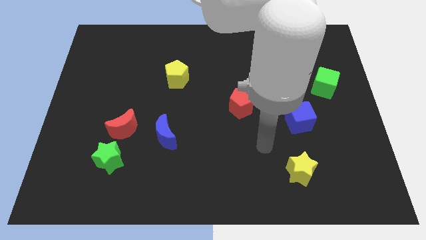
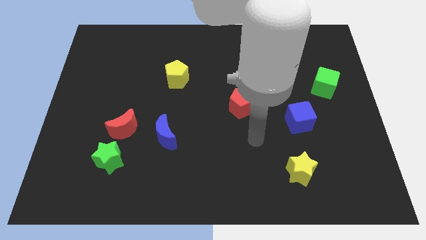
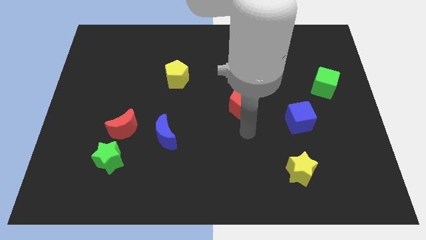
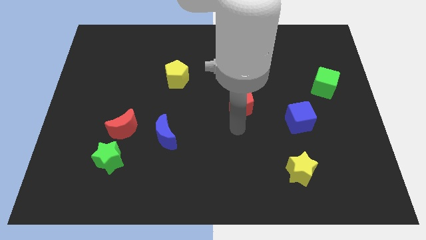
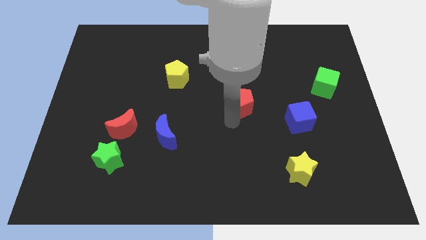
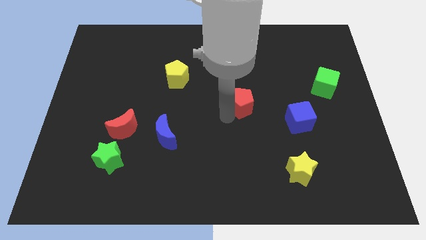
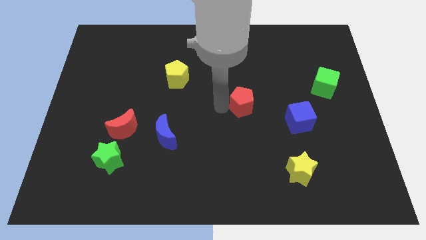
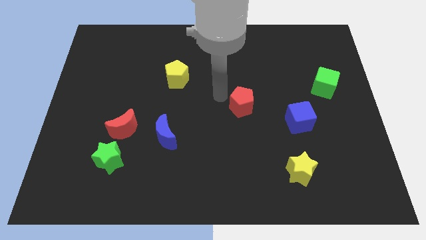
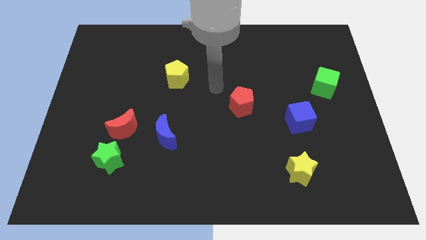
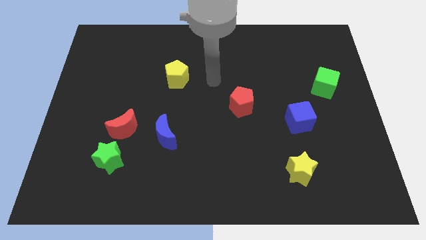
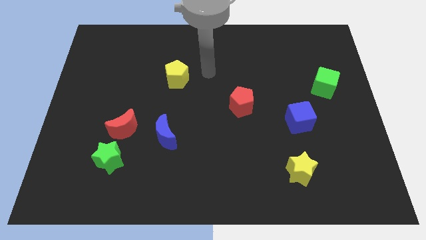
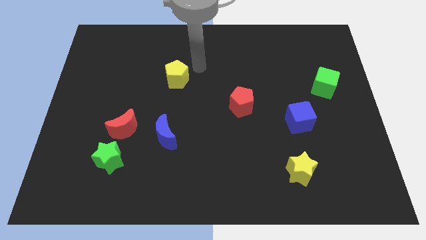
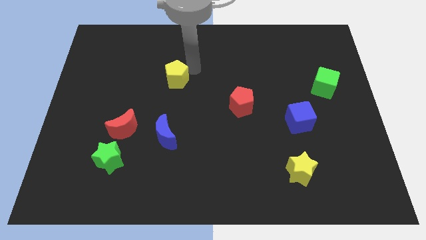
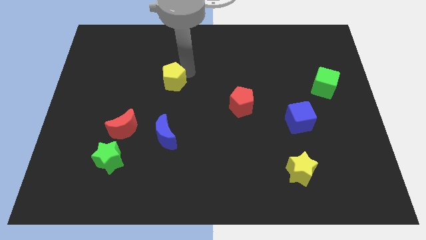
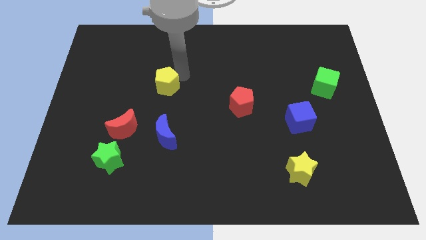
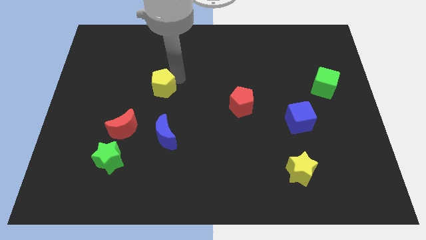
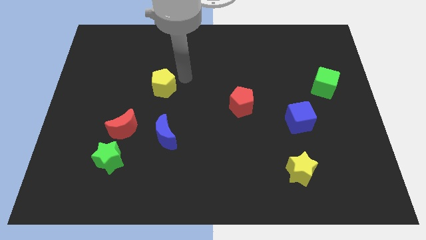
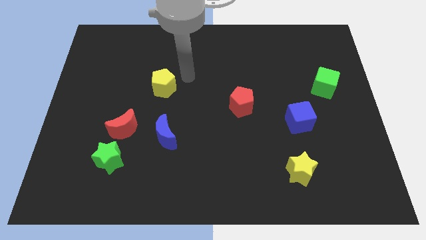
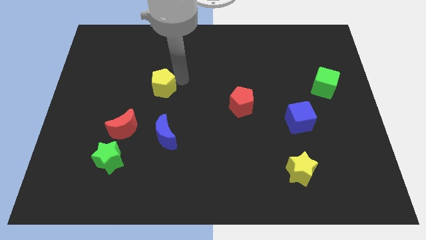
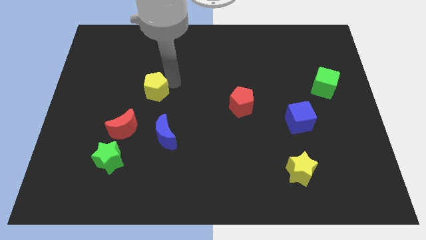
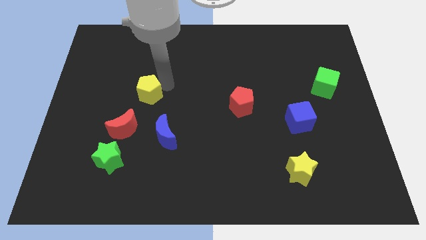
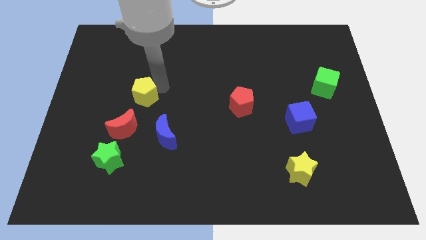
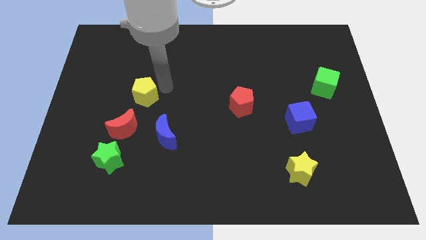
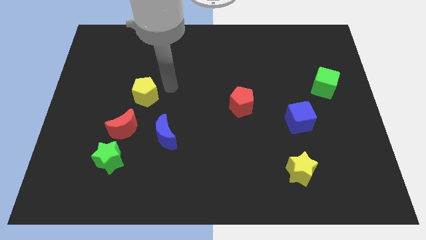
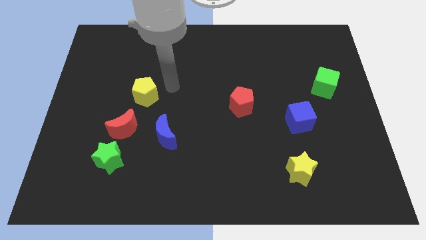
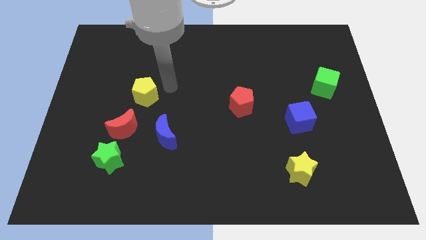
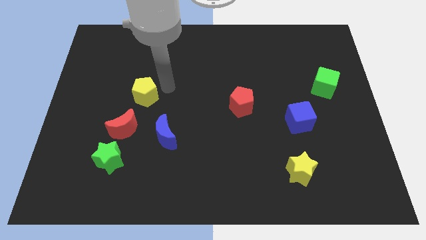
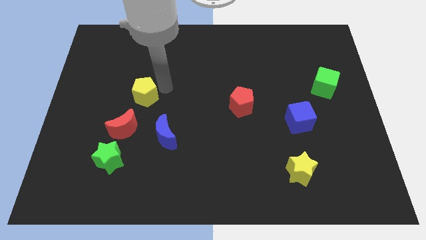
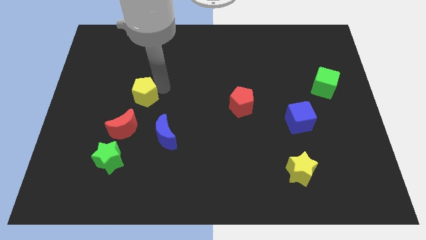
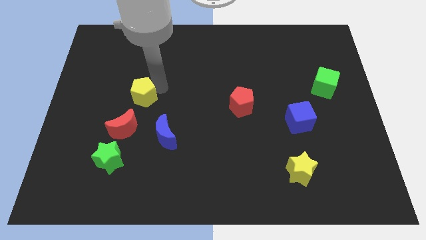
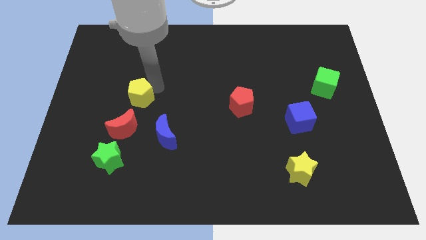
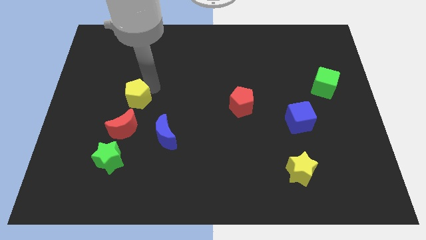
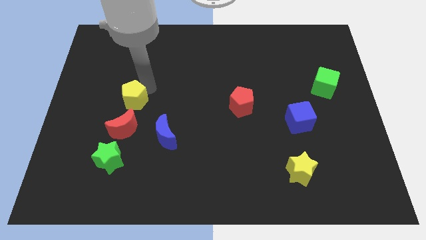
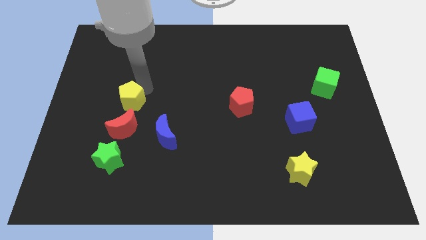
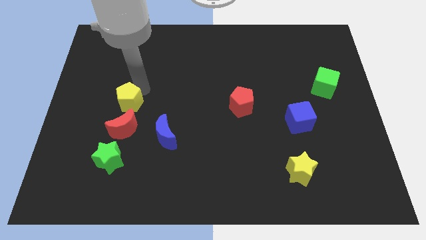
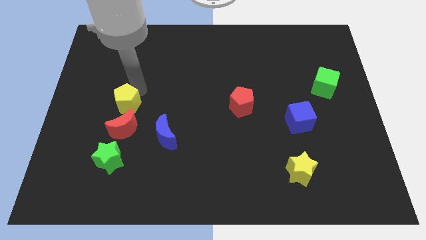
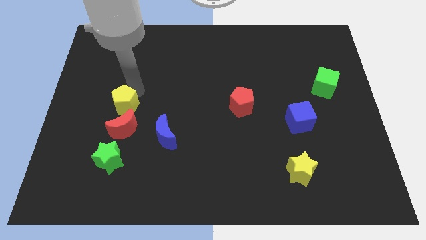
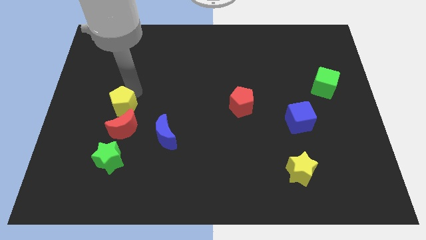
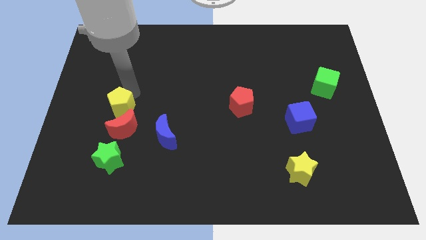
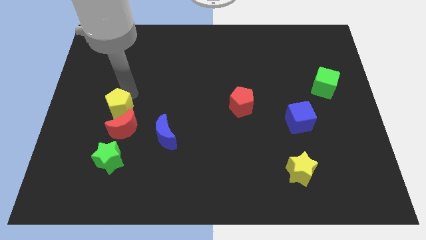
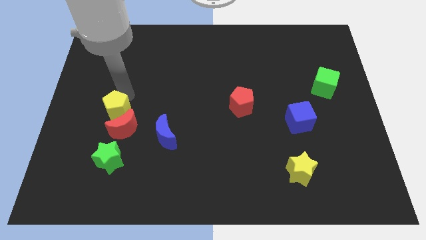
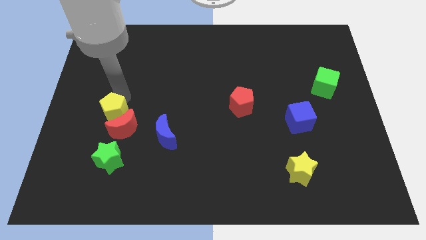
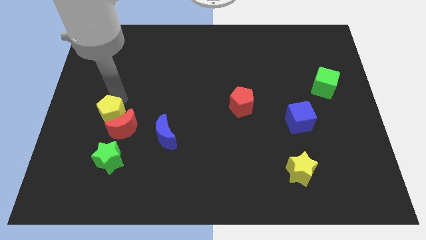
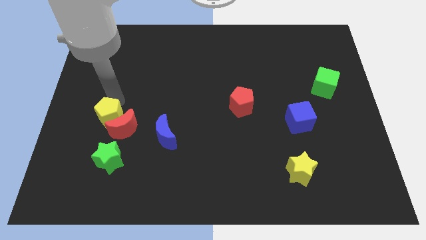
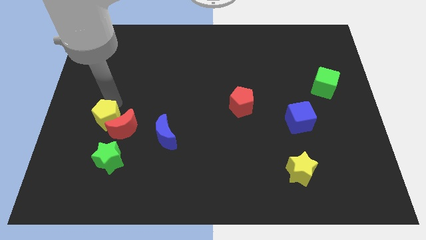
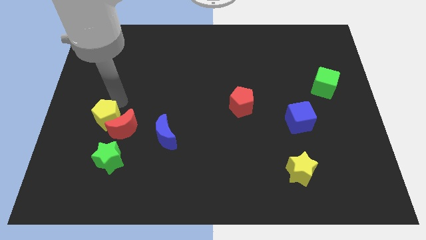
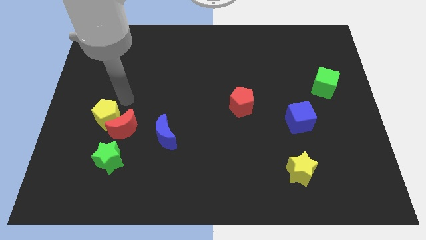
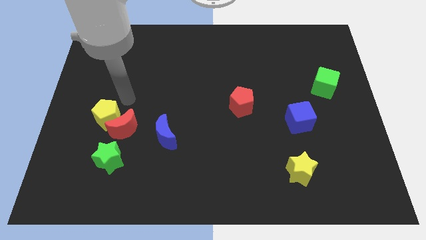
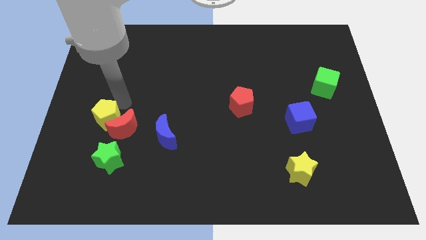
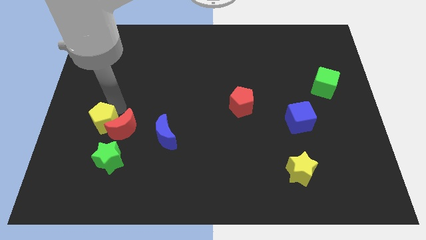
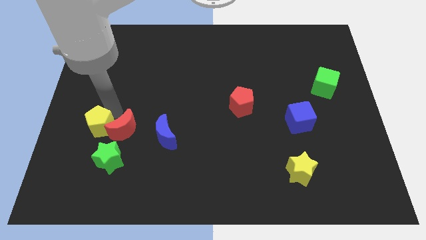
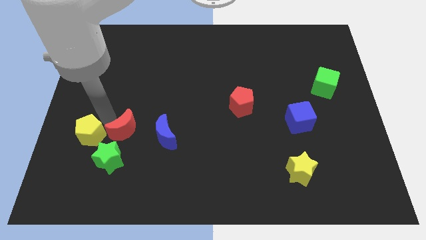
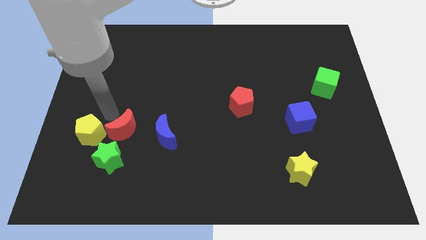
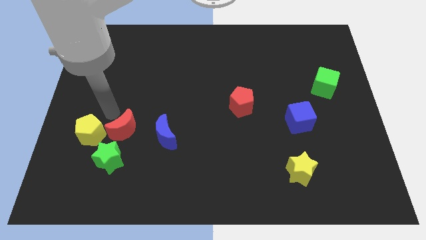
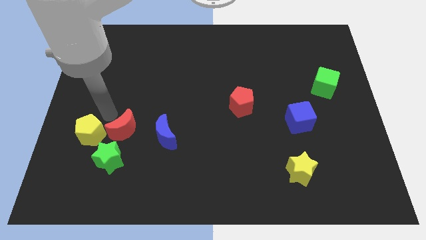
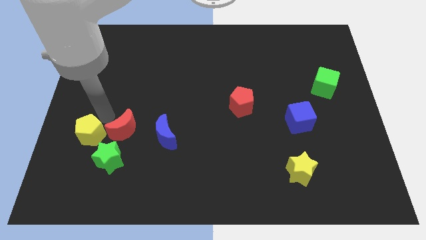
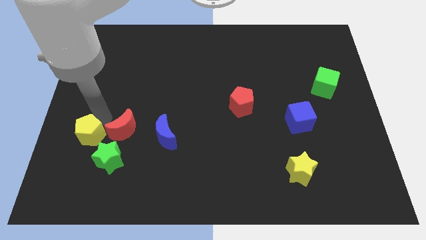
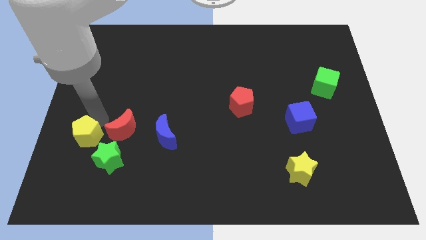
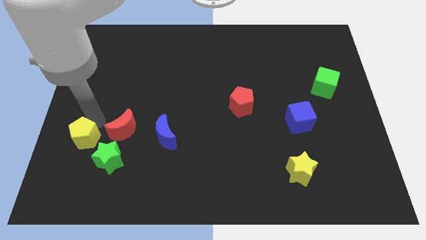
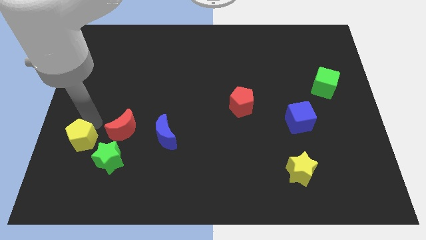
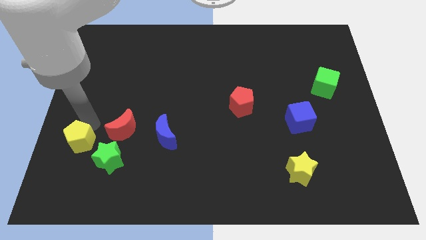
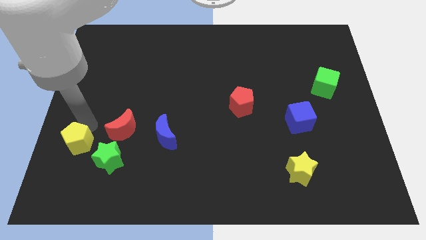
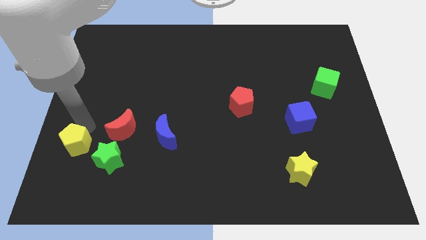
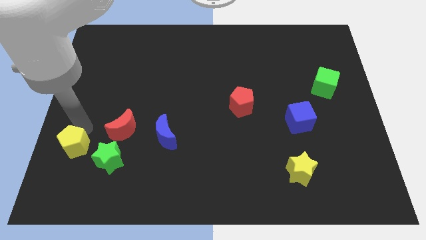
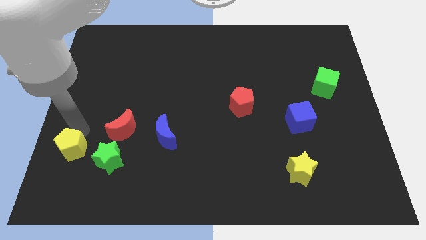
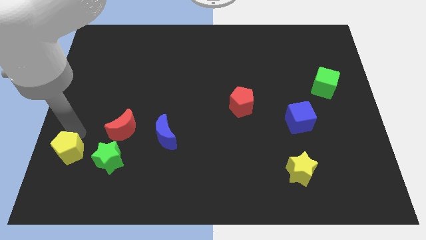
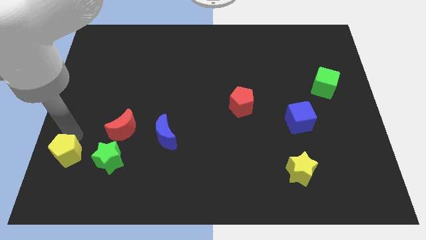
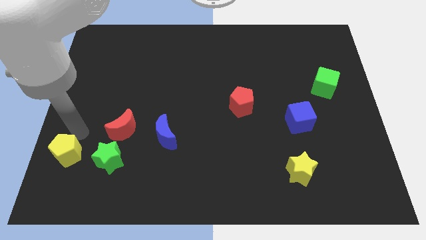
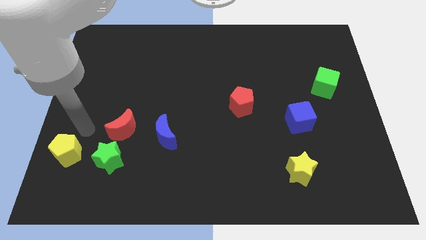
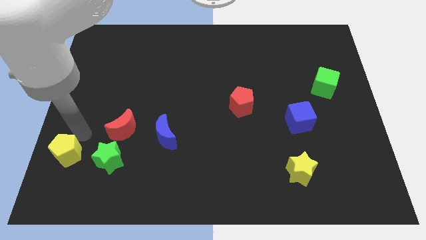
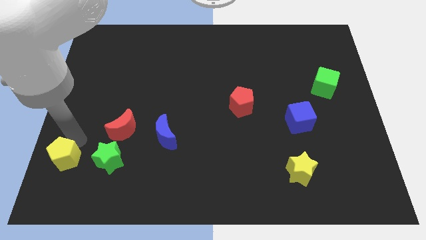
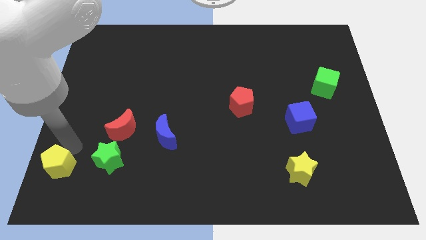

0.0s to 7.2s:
push the yellow pentagon to the lower left corner
